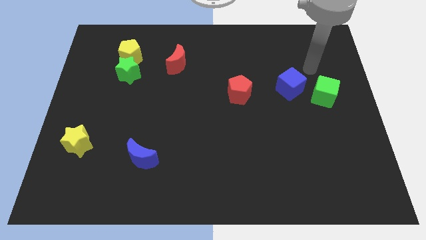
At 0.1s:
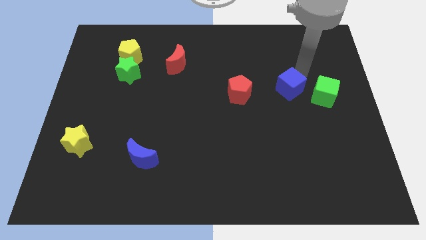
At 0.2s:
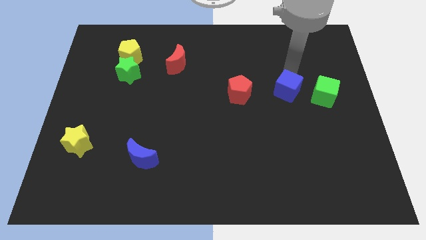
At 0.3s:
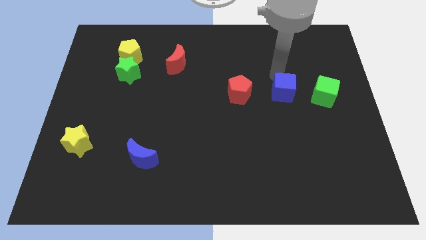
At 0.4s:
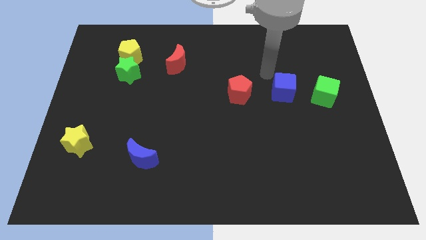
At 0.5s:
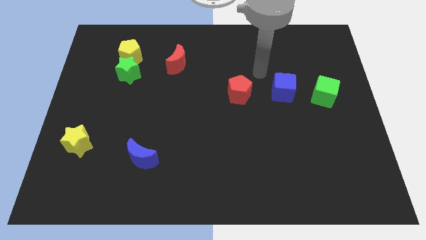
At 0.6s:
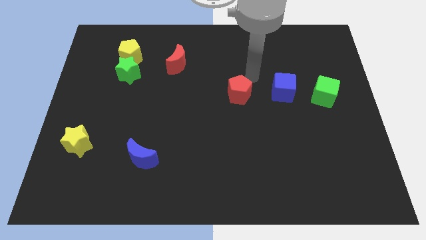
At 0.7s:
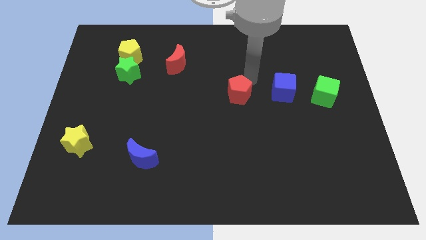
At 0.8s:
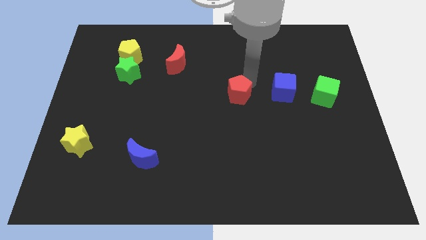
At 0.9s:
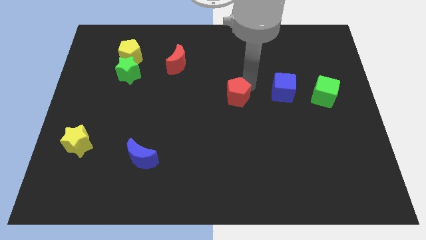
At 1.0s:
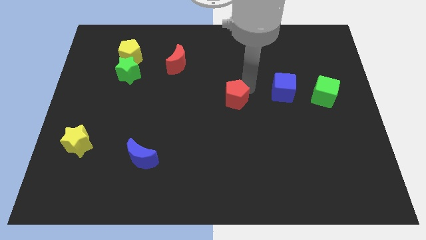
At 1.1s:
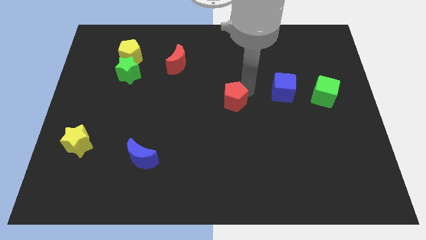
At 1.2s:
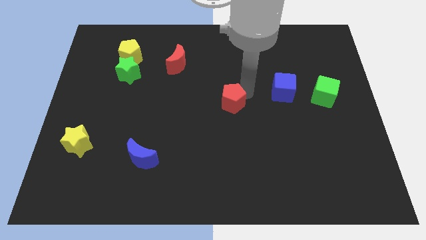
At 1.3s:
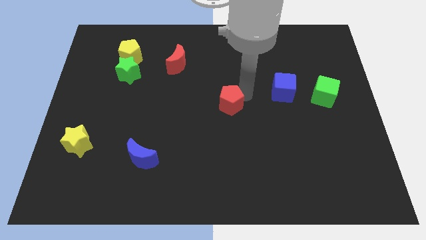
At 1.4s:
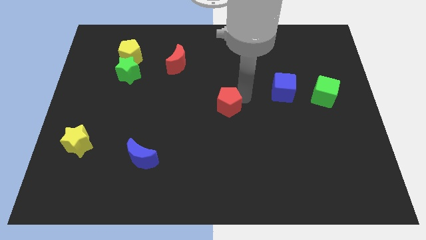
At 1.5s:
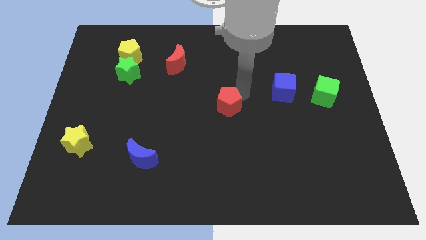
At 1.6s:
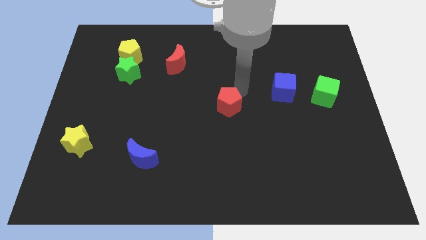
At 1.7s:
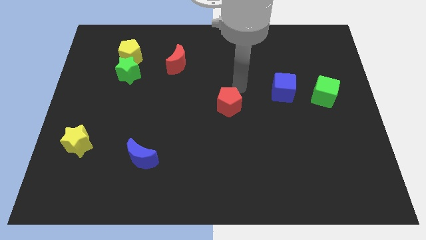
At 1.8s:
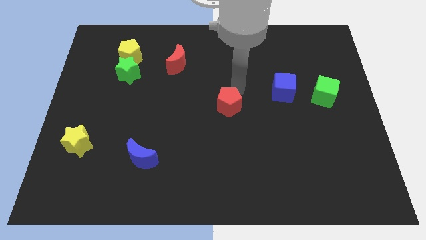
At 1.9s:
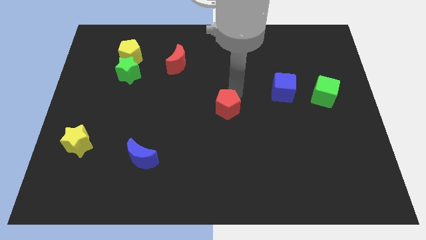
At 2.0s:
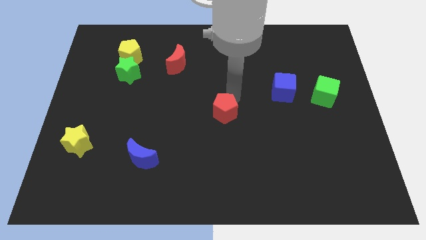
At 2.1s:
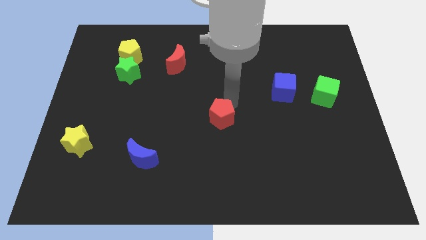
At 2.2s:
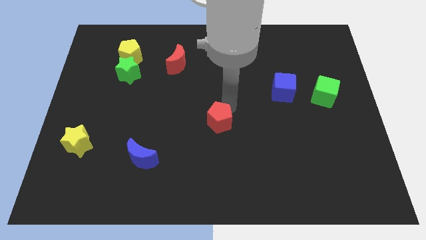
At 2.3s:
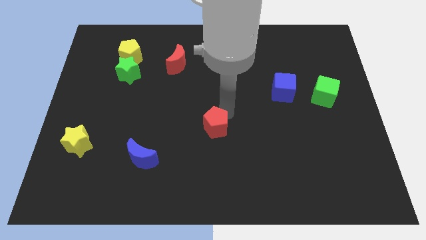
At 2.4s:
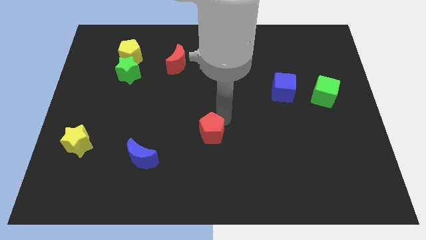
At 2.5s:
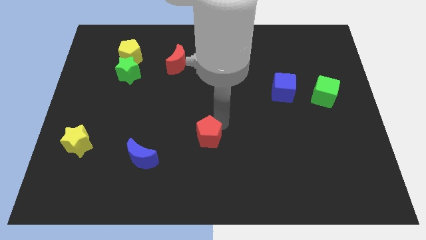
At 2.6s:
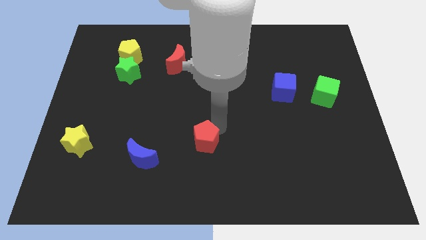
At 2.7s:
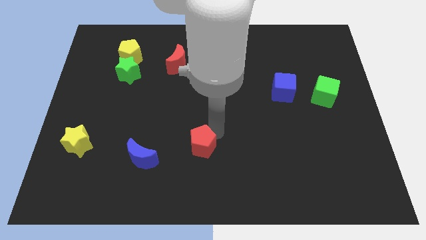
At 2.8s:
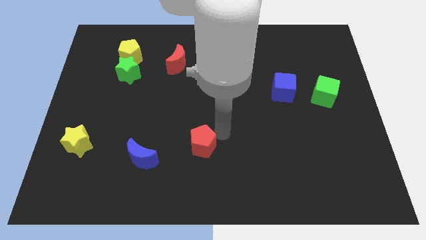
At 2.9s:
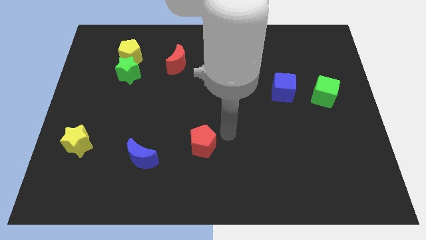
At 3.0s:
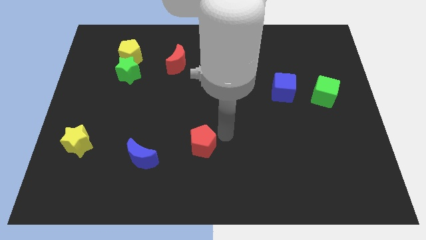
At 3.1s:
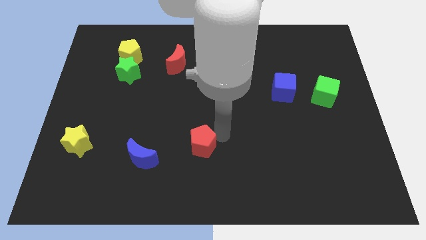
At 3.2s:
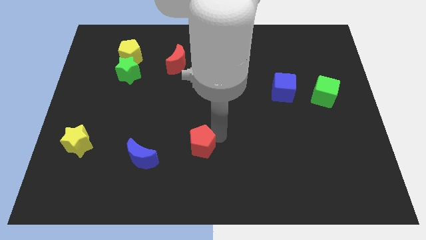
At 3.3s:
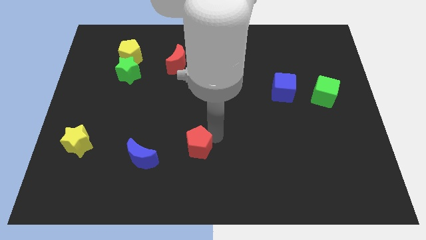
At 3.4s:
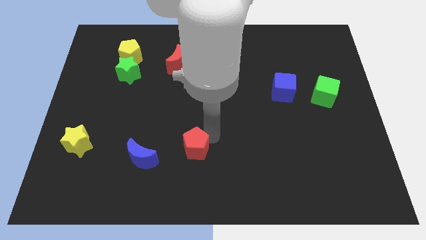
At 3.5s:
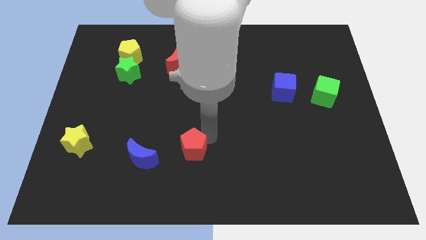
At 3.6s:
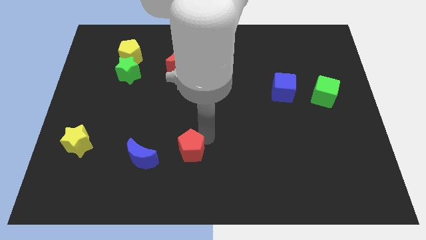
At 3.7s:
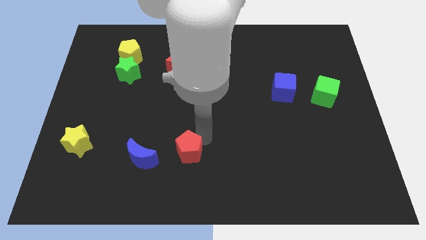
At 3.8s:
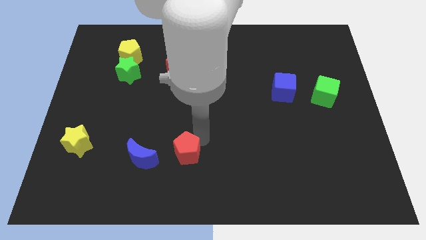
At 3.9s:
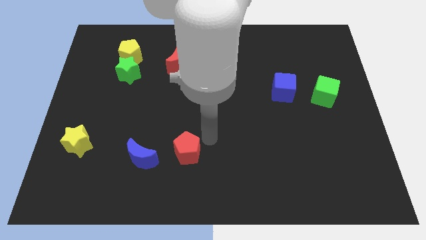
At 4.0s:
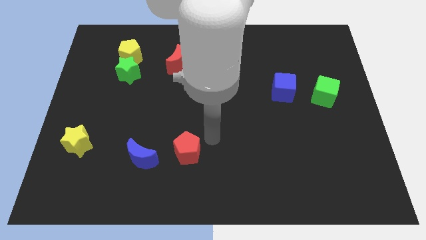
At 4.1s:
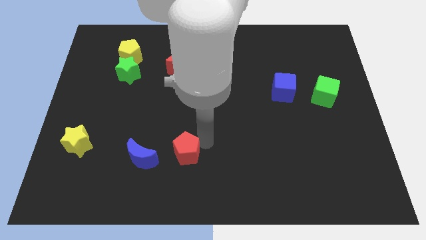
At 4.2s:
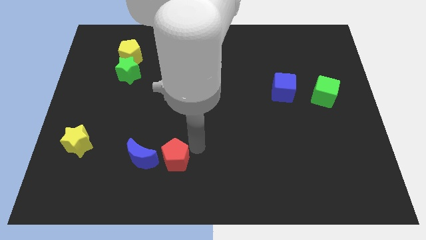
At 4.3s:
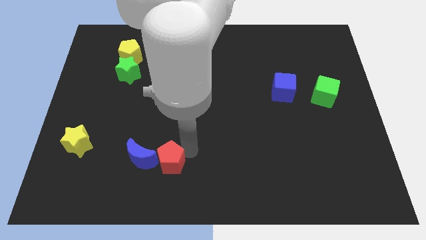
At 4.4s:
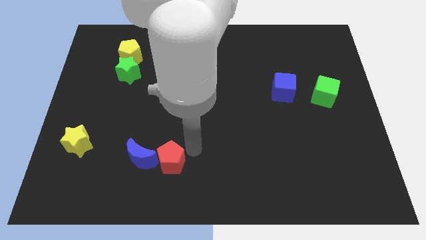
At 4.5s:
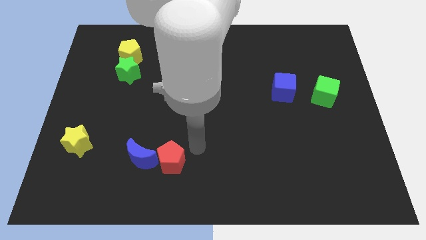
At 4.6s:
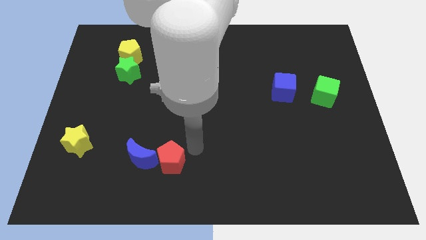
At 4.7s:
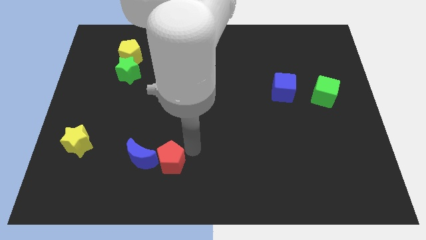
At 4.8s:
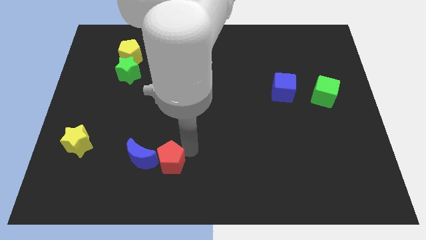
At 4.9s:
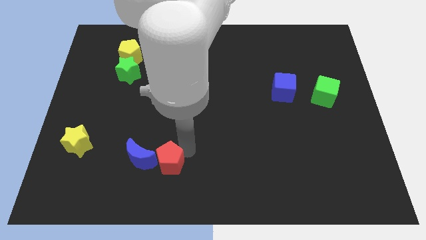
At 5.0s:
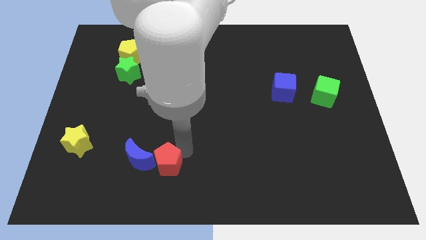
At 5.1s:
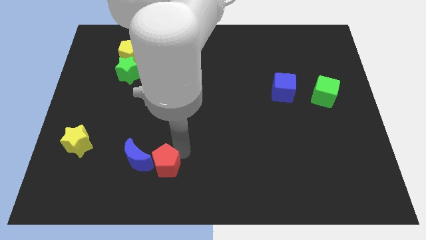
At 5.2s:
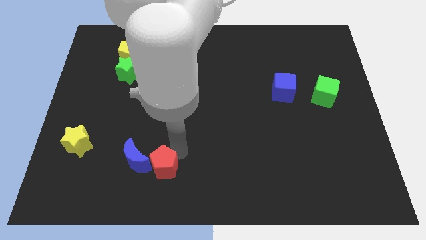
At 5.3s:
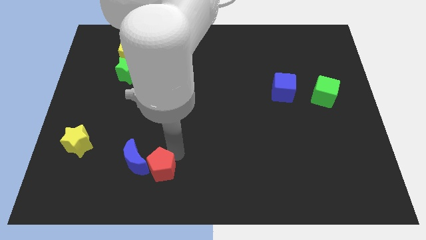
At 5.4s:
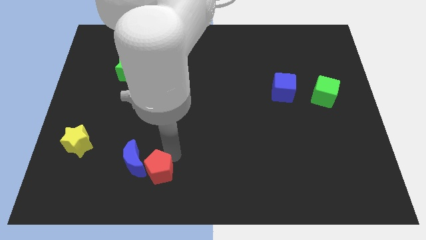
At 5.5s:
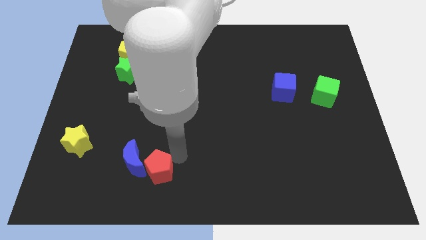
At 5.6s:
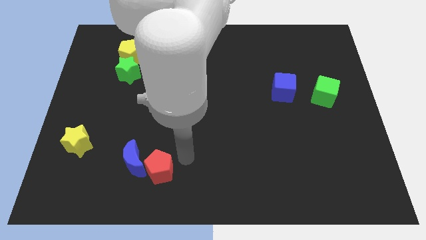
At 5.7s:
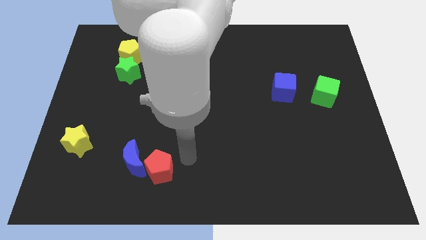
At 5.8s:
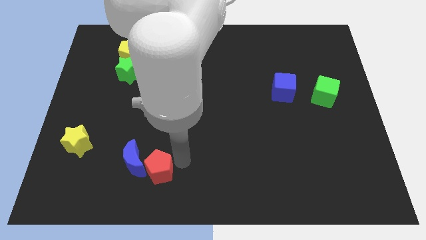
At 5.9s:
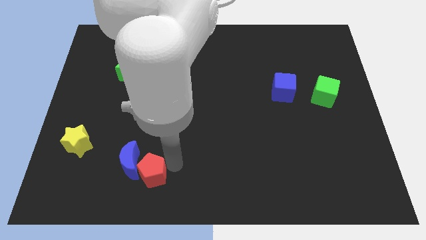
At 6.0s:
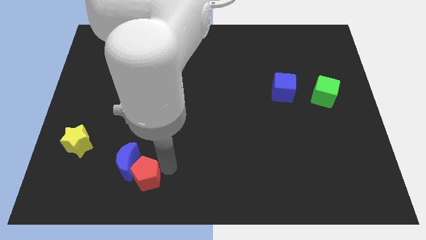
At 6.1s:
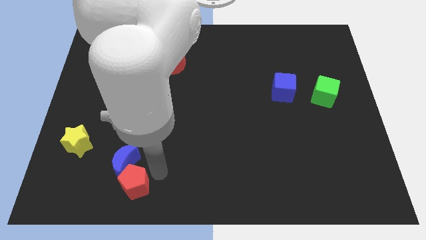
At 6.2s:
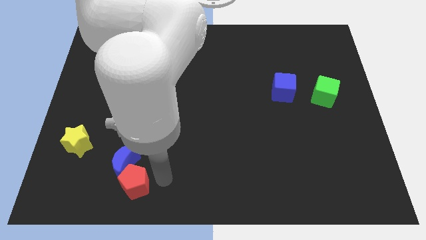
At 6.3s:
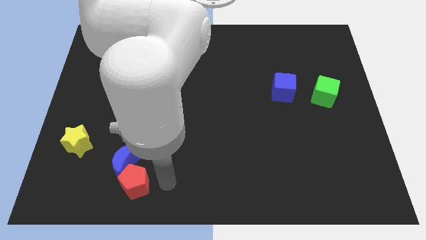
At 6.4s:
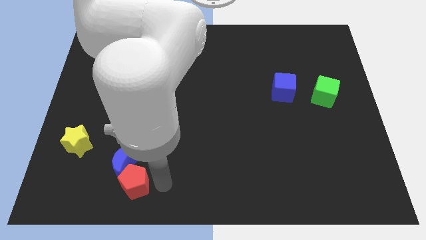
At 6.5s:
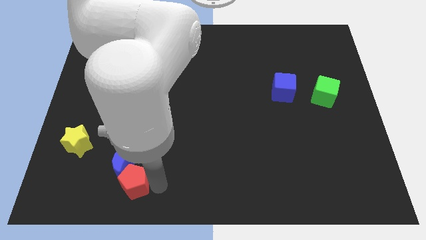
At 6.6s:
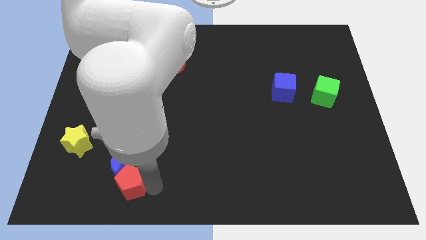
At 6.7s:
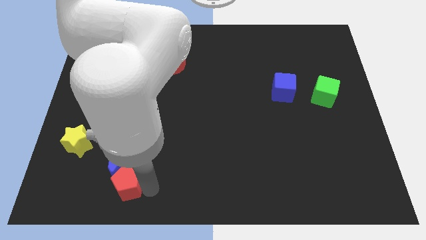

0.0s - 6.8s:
push the red pentagon to the bottom left of the blue moon

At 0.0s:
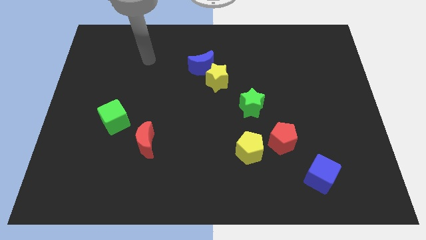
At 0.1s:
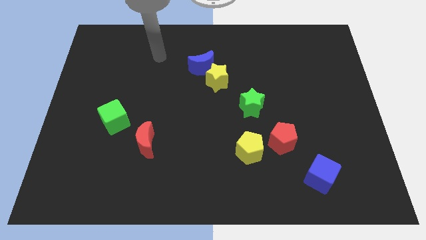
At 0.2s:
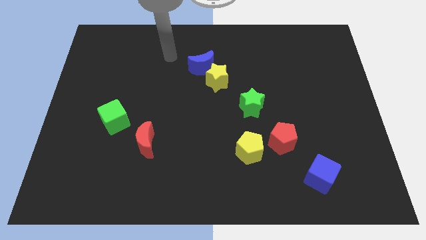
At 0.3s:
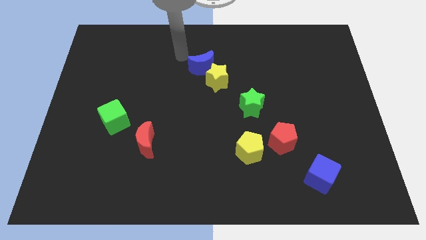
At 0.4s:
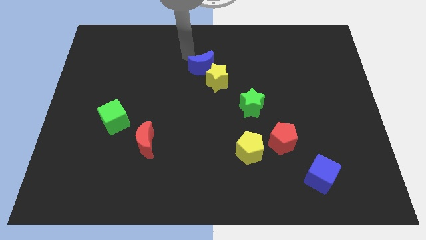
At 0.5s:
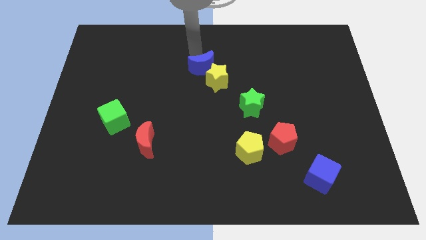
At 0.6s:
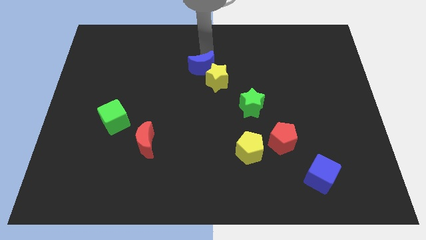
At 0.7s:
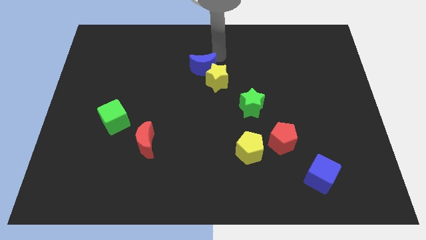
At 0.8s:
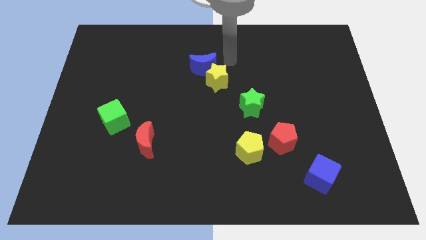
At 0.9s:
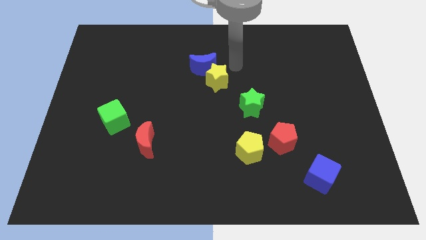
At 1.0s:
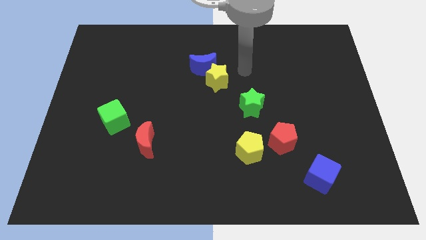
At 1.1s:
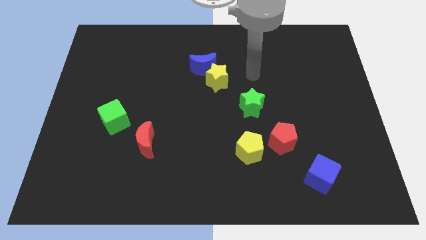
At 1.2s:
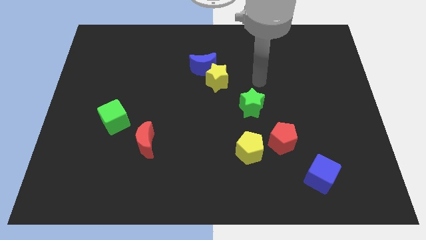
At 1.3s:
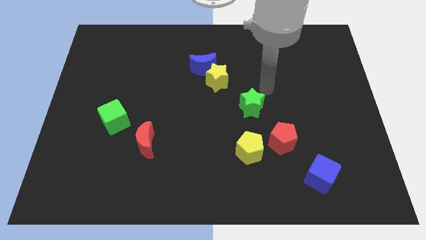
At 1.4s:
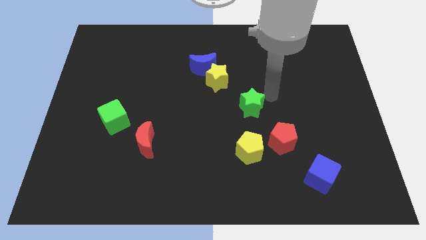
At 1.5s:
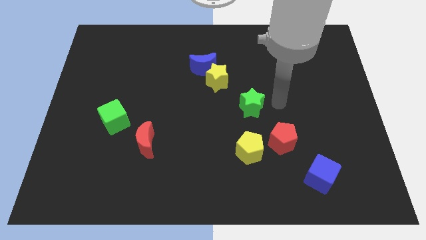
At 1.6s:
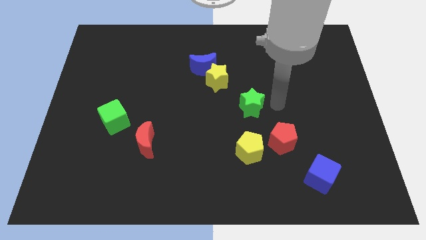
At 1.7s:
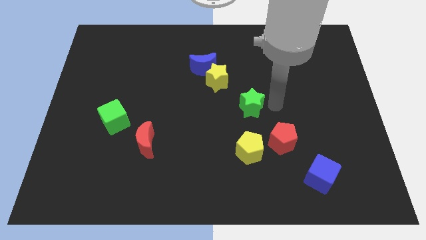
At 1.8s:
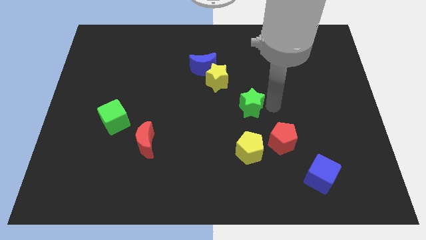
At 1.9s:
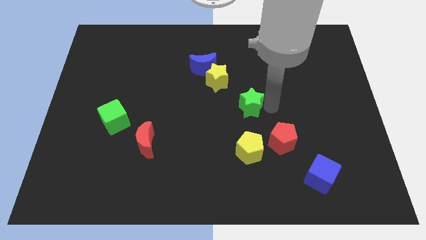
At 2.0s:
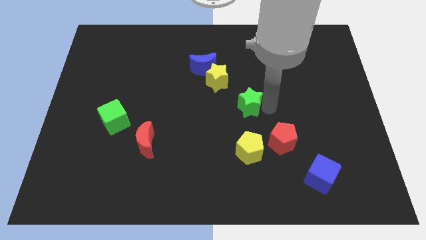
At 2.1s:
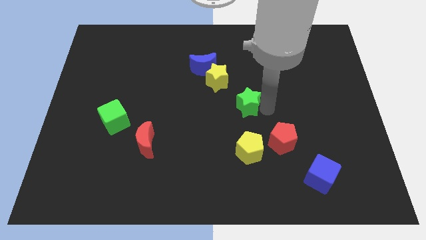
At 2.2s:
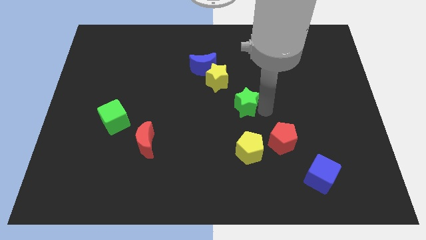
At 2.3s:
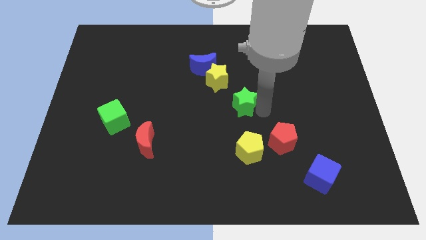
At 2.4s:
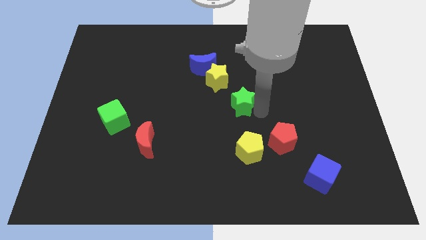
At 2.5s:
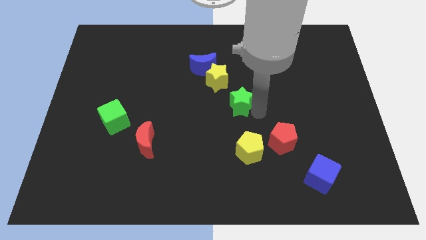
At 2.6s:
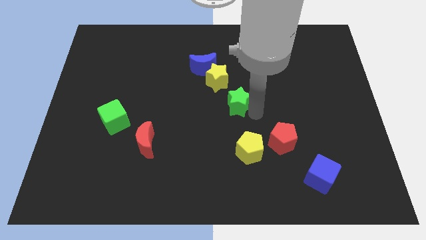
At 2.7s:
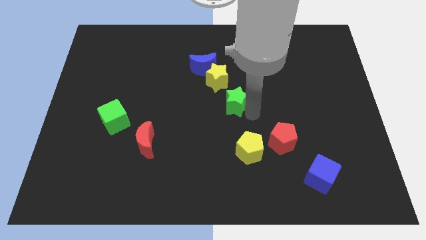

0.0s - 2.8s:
move the green star below the yellow star
